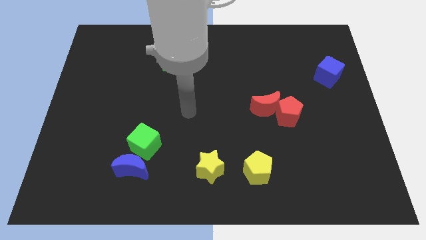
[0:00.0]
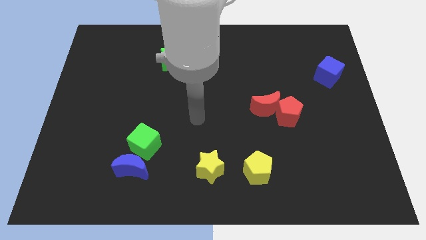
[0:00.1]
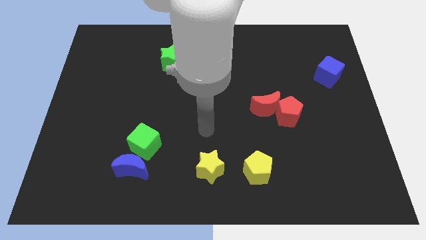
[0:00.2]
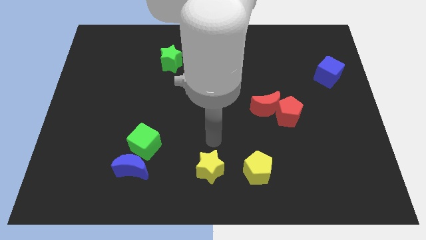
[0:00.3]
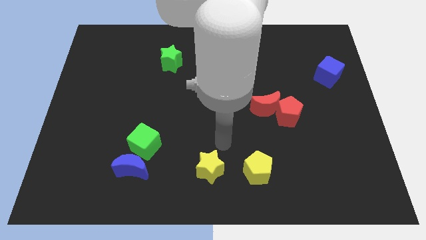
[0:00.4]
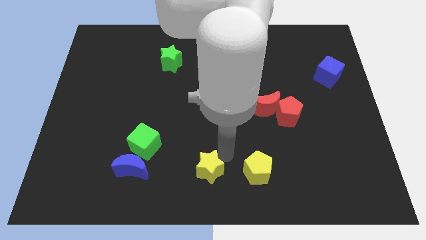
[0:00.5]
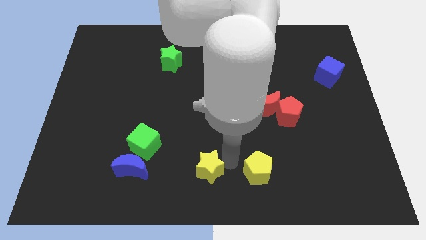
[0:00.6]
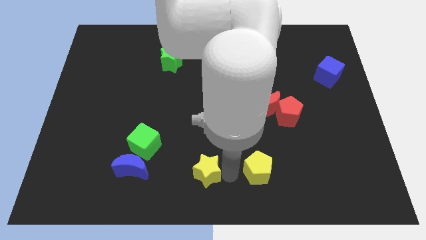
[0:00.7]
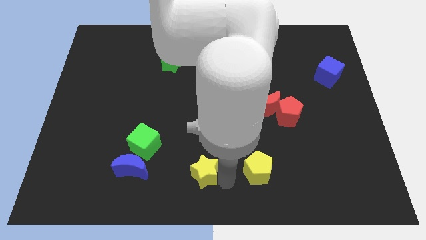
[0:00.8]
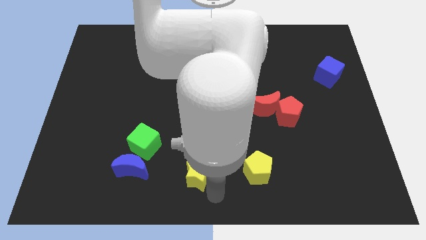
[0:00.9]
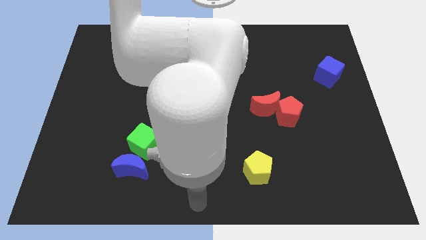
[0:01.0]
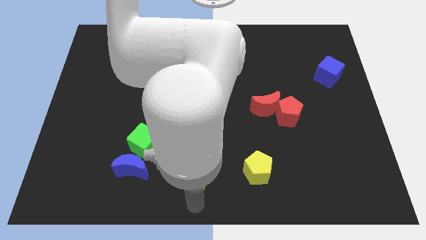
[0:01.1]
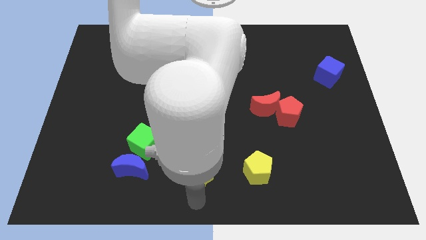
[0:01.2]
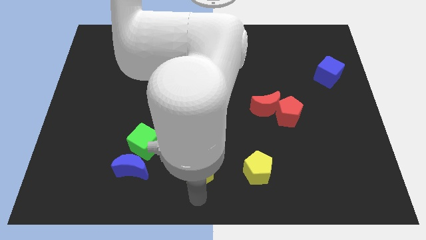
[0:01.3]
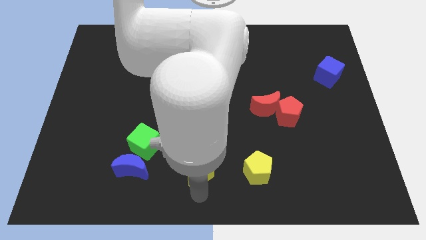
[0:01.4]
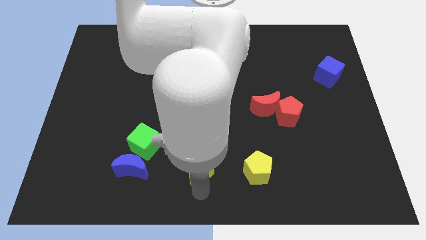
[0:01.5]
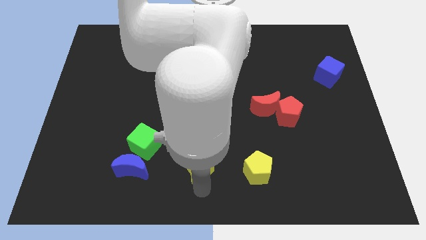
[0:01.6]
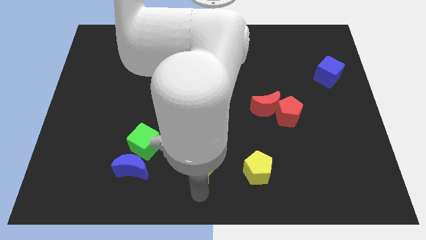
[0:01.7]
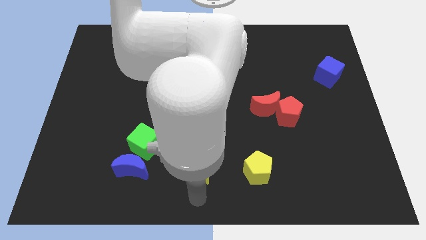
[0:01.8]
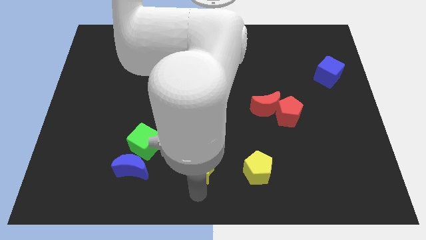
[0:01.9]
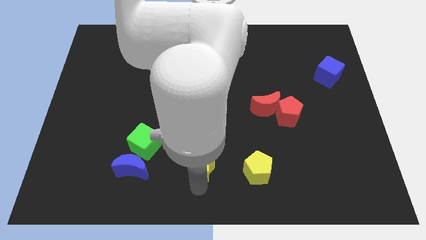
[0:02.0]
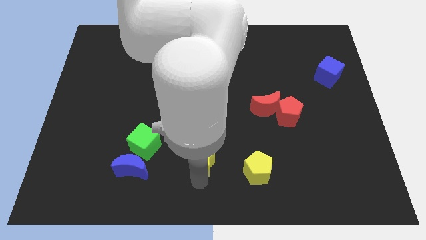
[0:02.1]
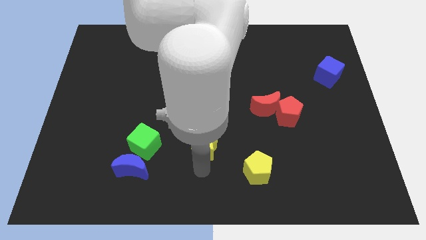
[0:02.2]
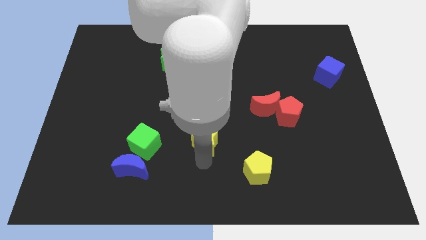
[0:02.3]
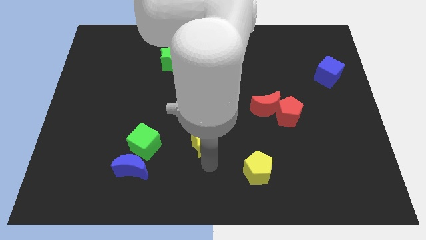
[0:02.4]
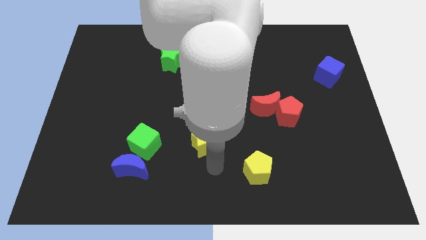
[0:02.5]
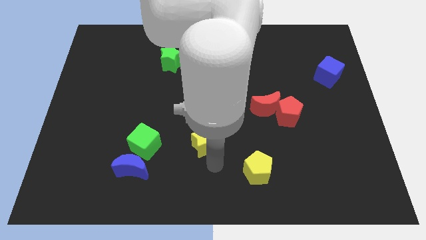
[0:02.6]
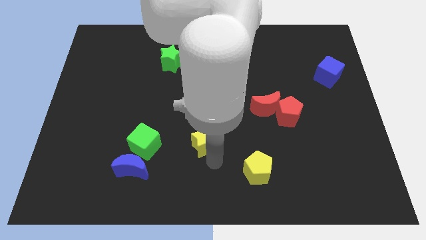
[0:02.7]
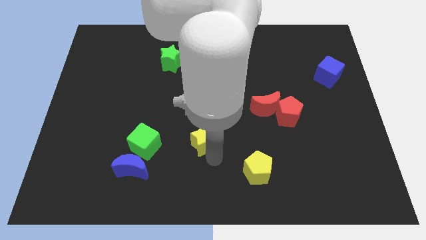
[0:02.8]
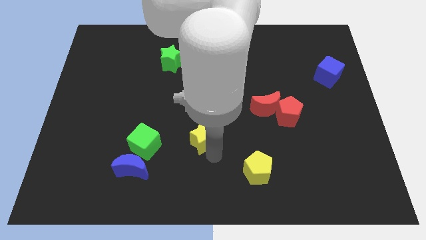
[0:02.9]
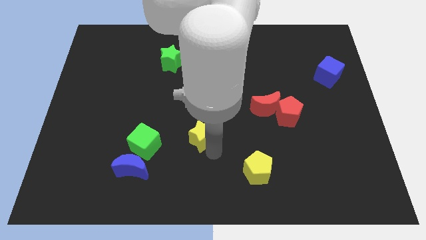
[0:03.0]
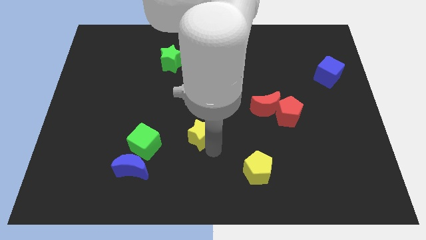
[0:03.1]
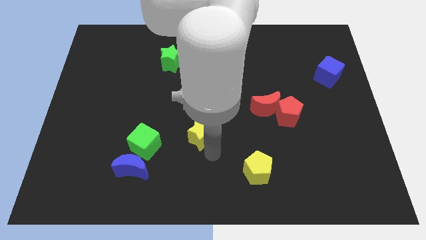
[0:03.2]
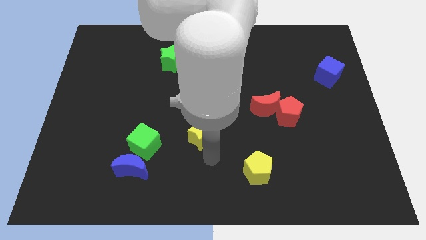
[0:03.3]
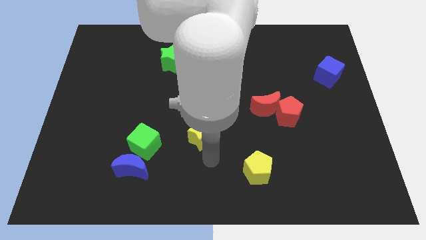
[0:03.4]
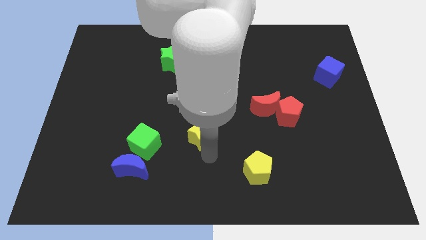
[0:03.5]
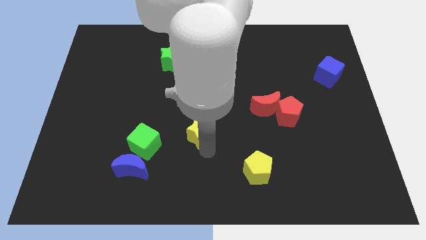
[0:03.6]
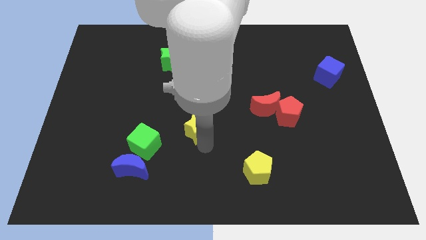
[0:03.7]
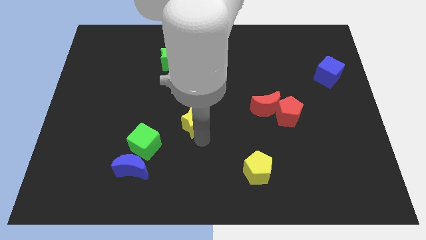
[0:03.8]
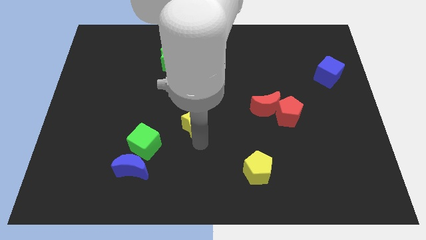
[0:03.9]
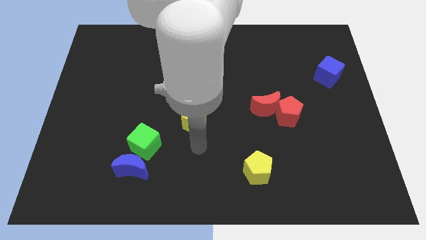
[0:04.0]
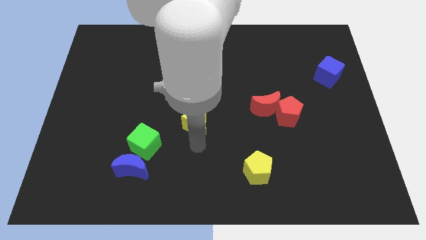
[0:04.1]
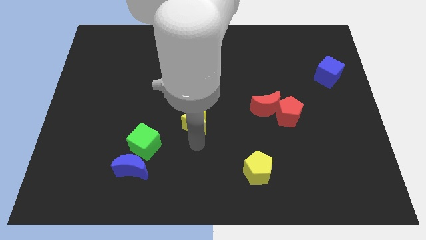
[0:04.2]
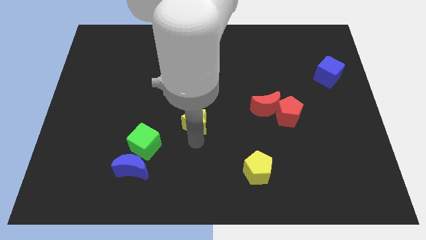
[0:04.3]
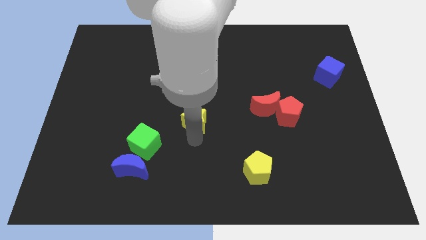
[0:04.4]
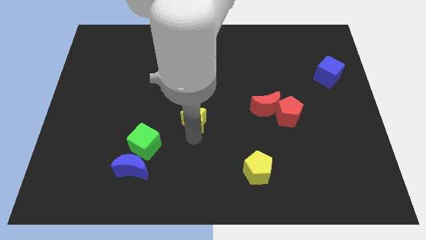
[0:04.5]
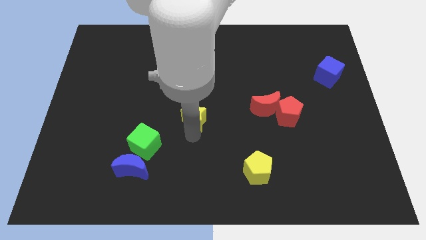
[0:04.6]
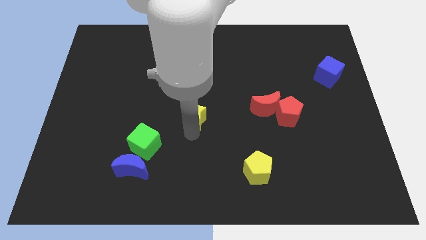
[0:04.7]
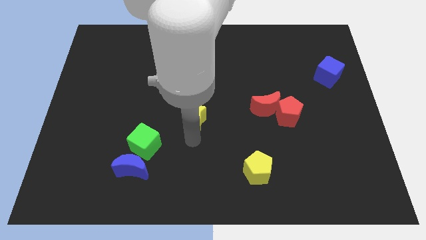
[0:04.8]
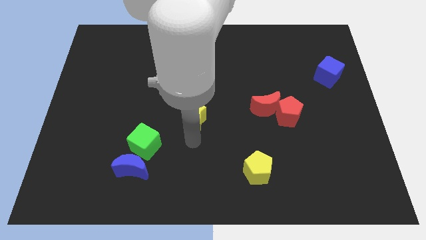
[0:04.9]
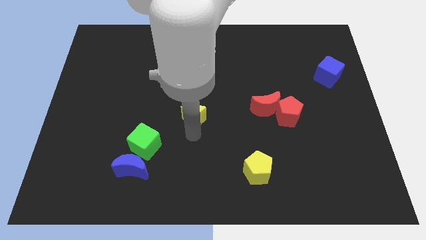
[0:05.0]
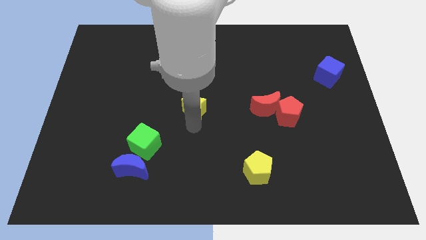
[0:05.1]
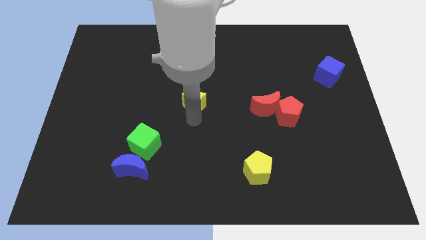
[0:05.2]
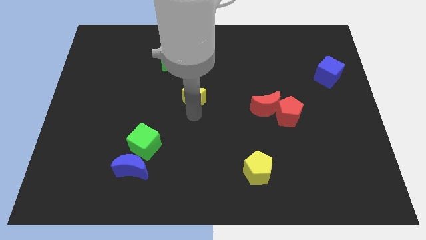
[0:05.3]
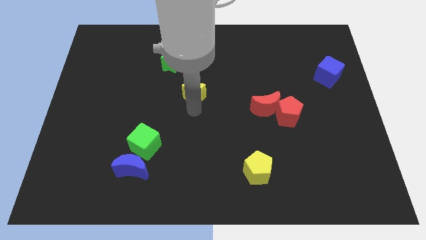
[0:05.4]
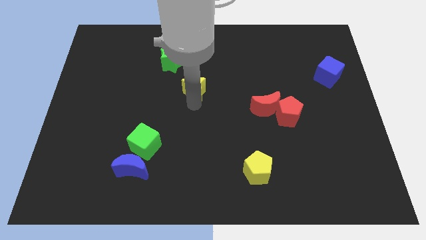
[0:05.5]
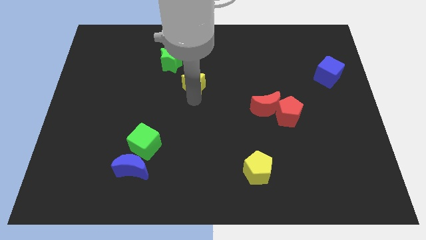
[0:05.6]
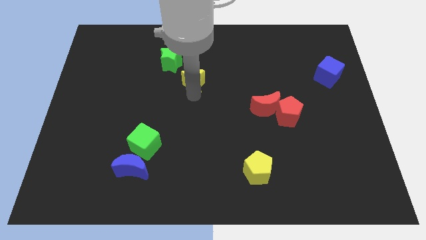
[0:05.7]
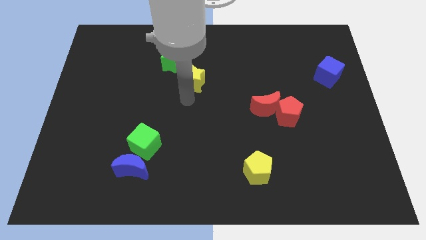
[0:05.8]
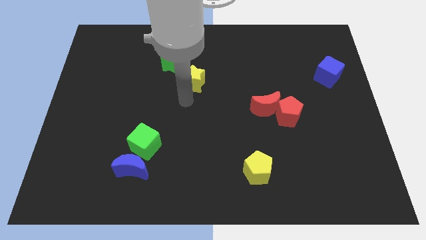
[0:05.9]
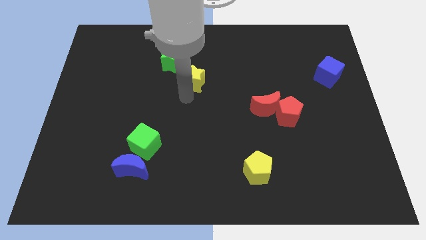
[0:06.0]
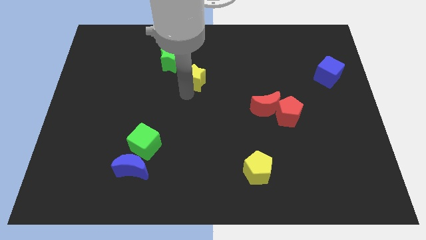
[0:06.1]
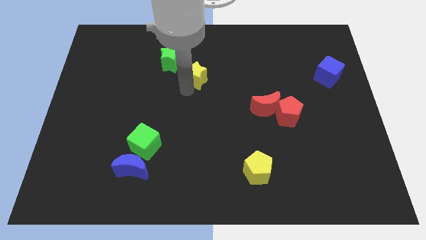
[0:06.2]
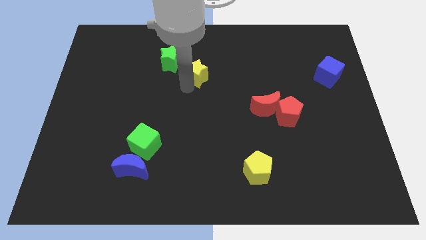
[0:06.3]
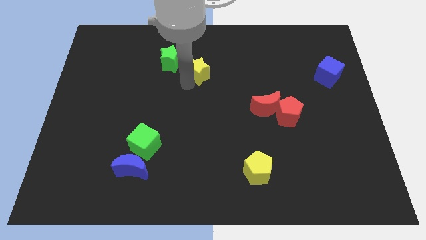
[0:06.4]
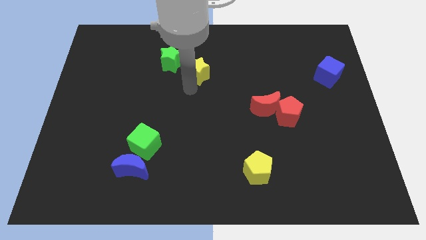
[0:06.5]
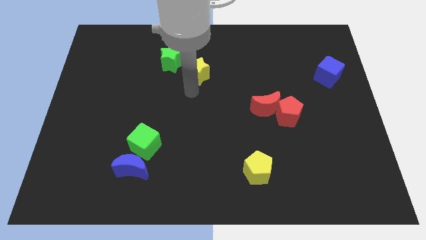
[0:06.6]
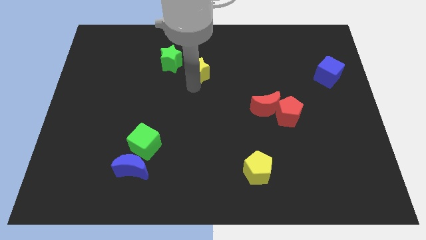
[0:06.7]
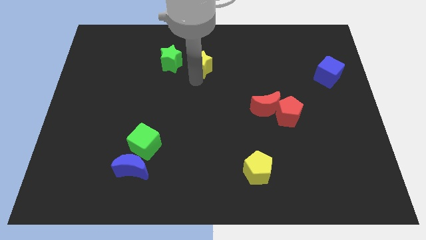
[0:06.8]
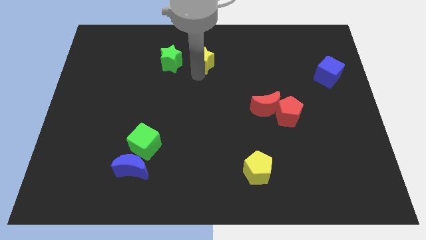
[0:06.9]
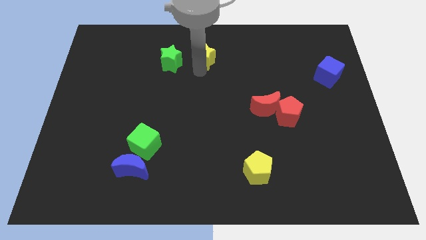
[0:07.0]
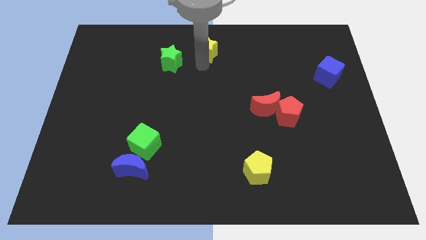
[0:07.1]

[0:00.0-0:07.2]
slide the yellow star to the top
